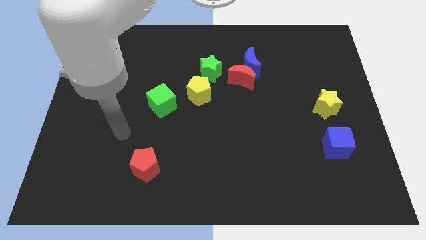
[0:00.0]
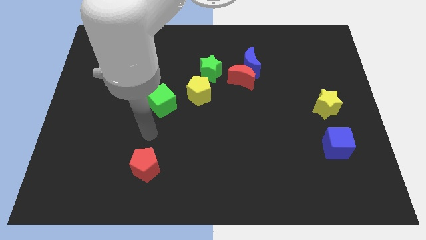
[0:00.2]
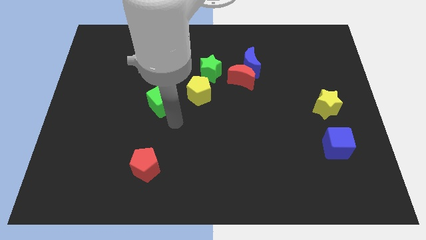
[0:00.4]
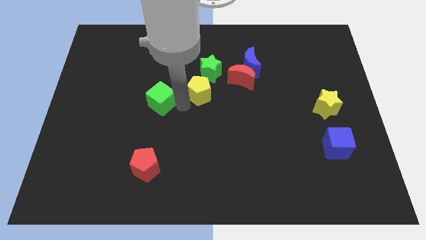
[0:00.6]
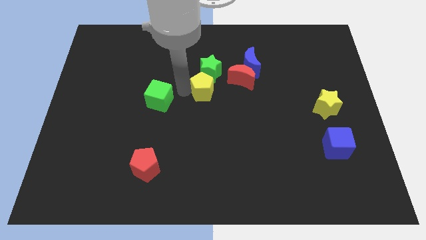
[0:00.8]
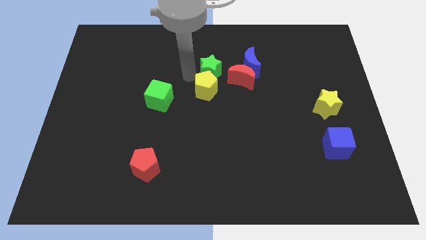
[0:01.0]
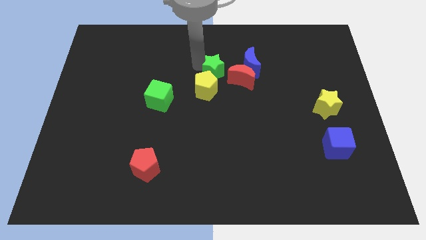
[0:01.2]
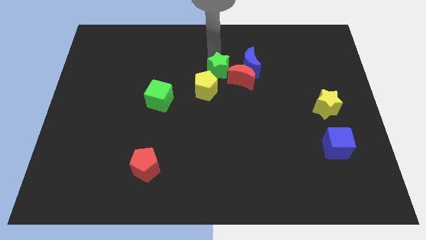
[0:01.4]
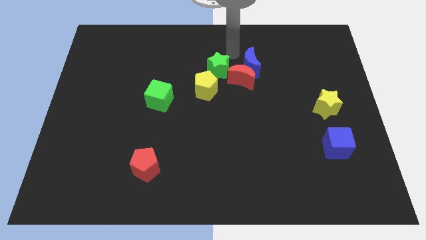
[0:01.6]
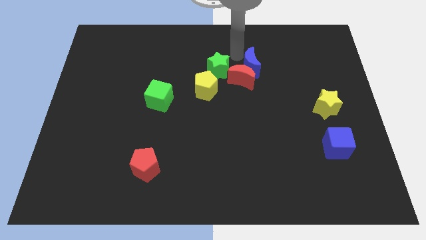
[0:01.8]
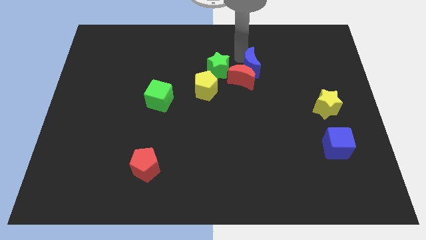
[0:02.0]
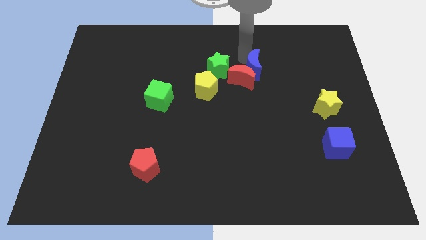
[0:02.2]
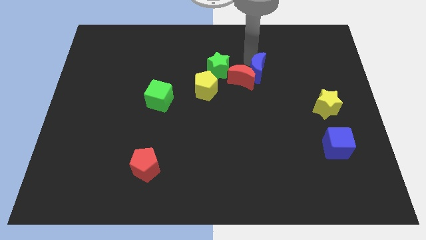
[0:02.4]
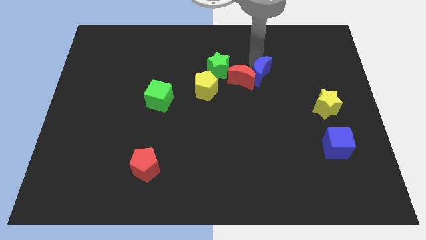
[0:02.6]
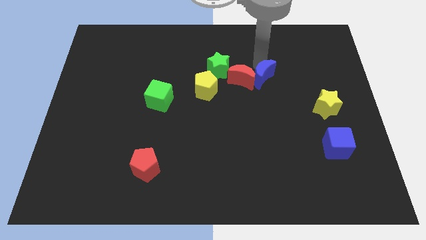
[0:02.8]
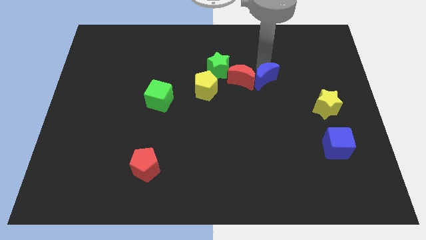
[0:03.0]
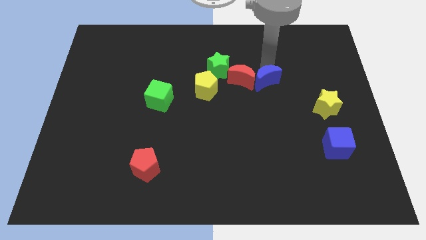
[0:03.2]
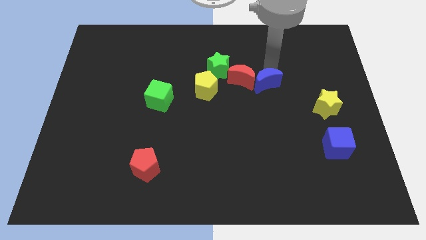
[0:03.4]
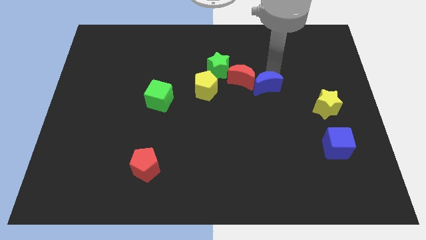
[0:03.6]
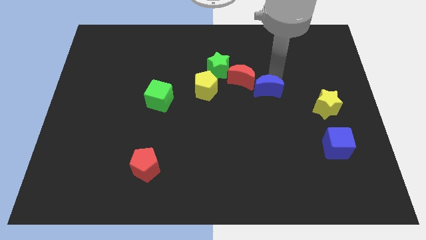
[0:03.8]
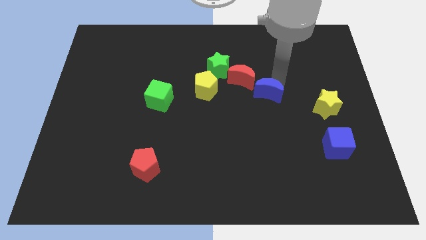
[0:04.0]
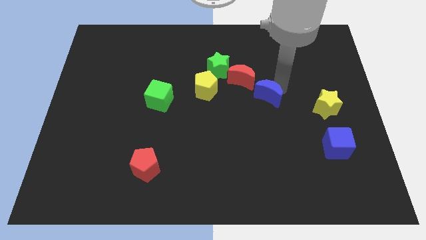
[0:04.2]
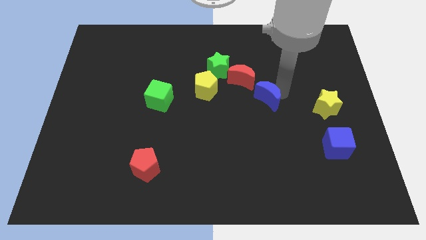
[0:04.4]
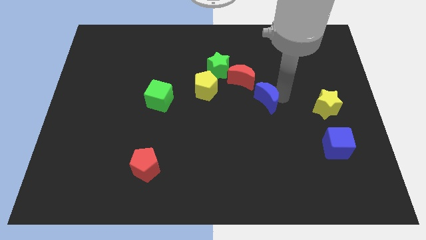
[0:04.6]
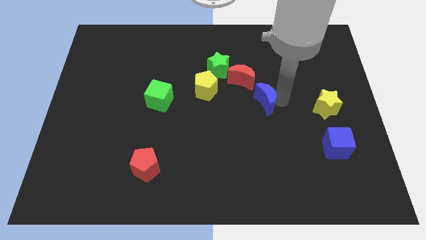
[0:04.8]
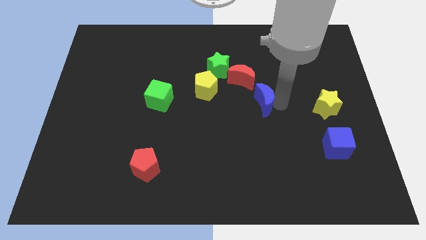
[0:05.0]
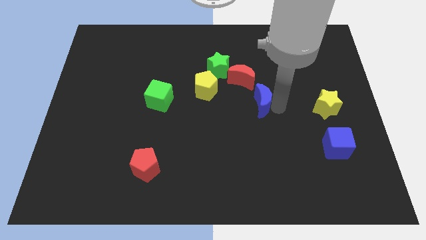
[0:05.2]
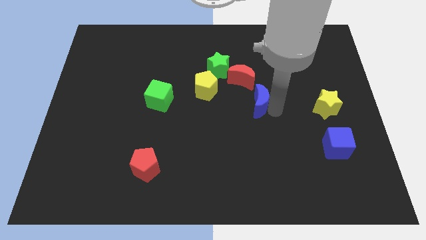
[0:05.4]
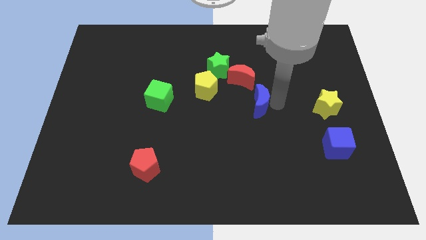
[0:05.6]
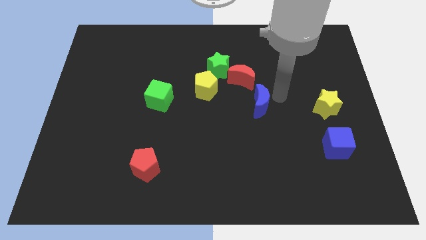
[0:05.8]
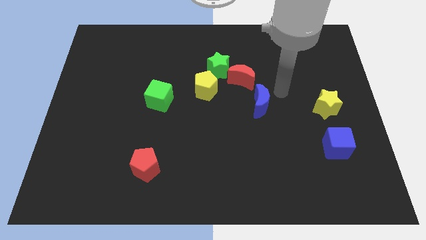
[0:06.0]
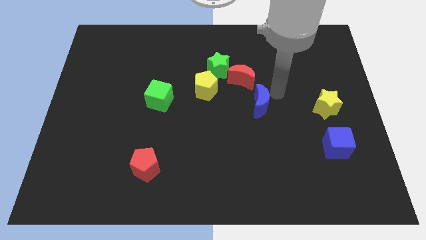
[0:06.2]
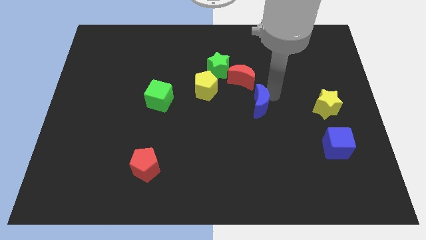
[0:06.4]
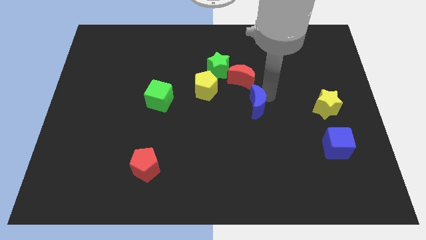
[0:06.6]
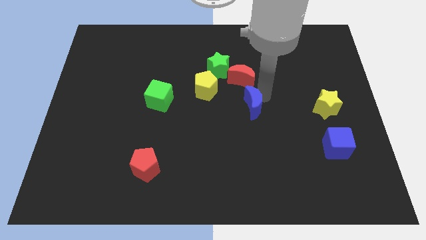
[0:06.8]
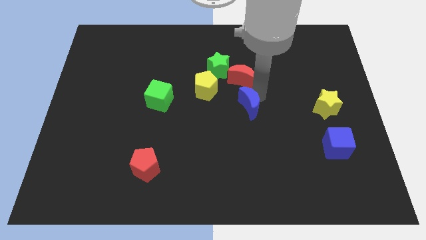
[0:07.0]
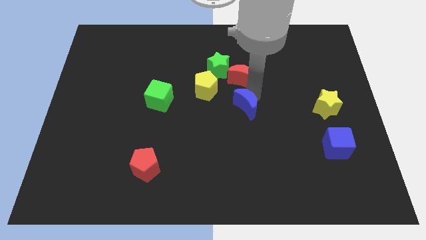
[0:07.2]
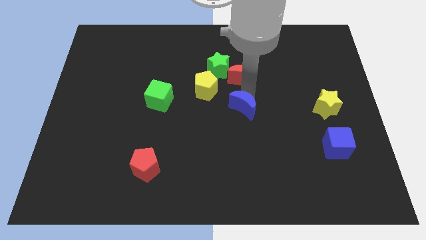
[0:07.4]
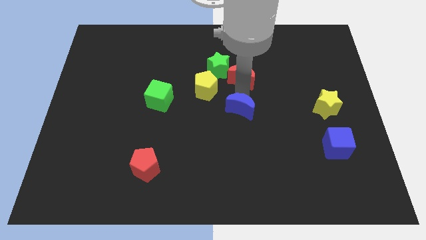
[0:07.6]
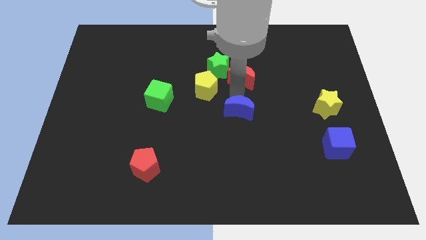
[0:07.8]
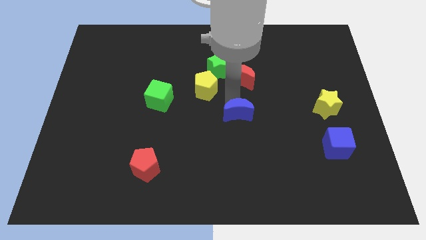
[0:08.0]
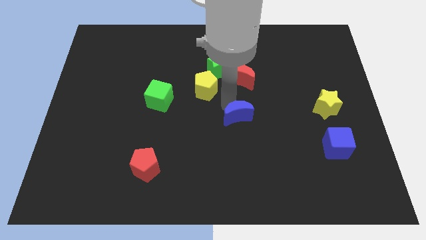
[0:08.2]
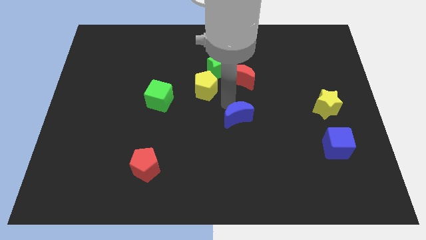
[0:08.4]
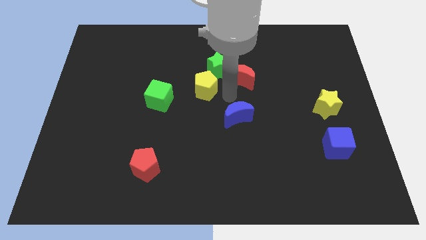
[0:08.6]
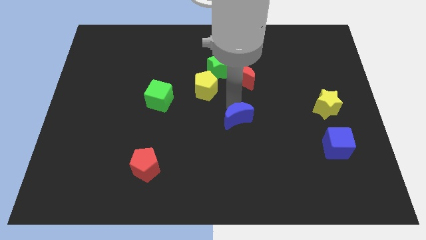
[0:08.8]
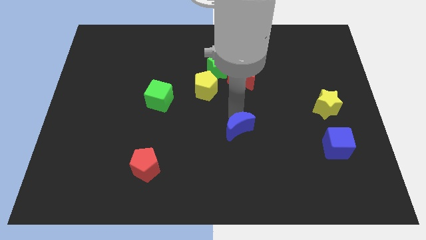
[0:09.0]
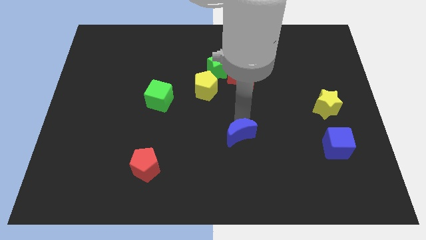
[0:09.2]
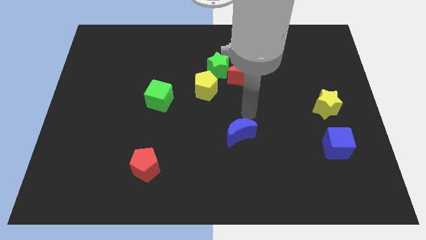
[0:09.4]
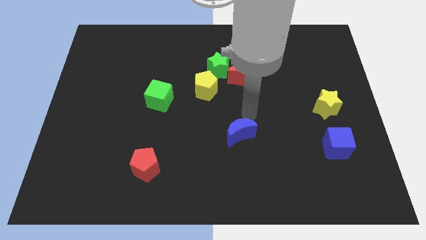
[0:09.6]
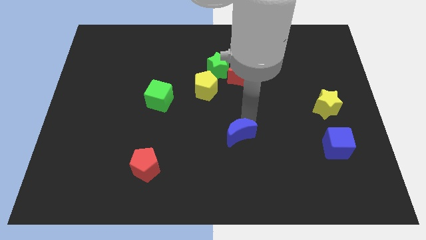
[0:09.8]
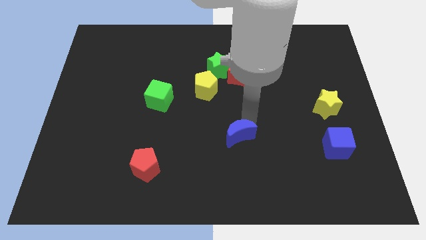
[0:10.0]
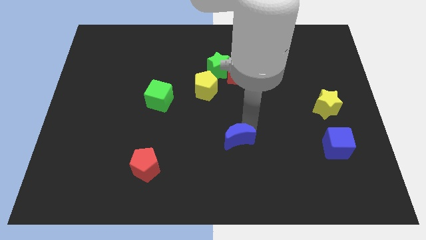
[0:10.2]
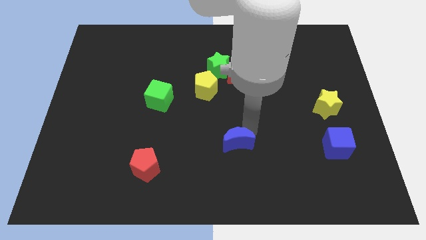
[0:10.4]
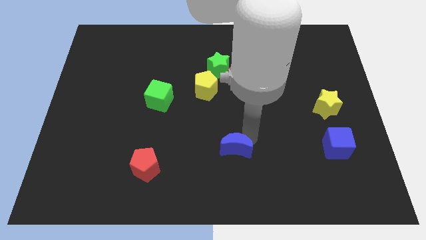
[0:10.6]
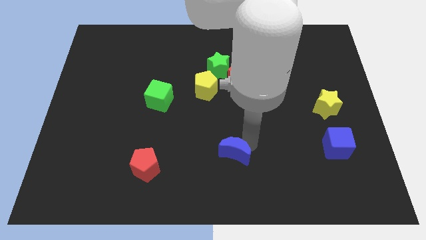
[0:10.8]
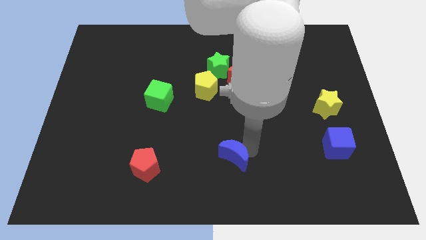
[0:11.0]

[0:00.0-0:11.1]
push the blue moon to the bottom
